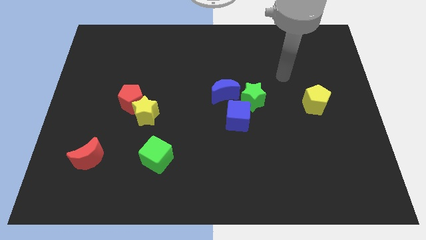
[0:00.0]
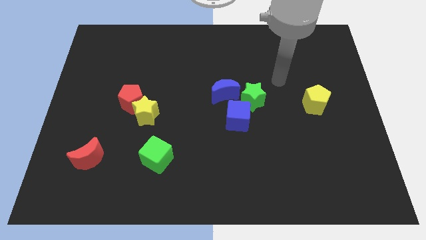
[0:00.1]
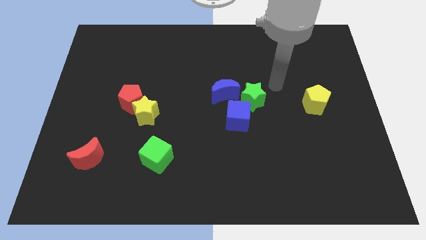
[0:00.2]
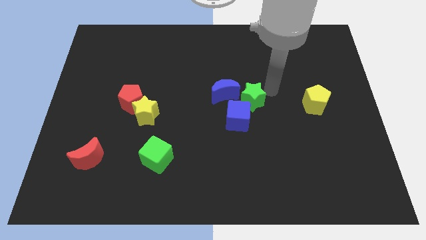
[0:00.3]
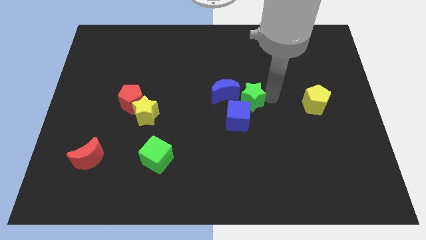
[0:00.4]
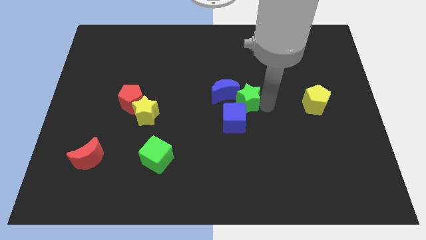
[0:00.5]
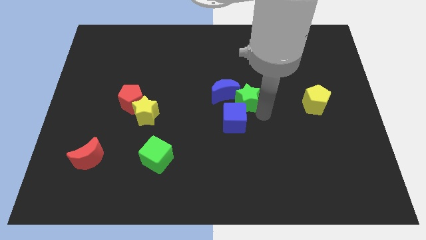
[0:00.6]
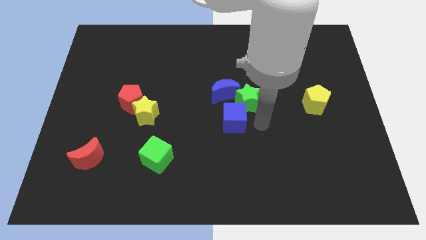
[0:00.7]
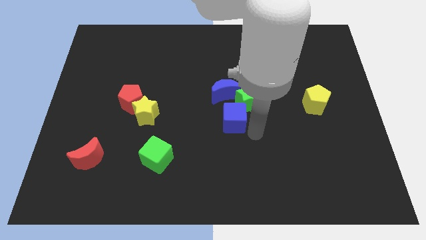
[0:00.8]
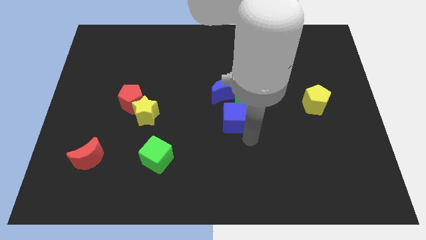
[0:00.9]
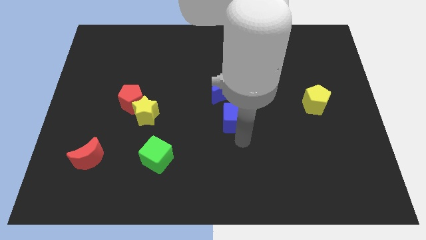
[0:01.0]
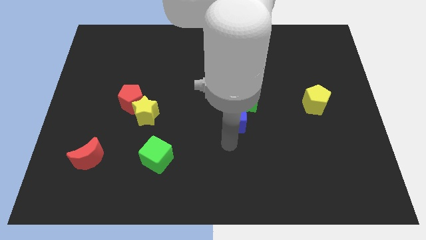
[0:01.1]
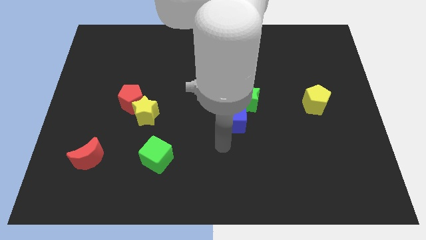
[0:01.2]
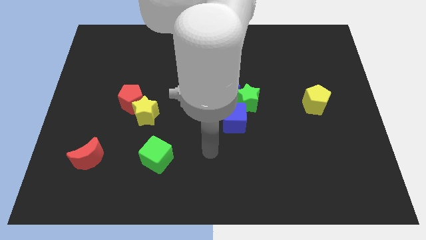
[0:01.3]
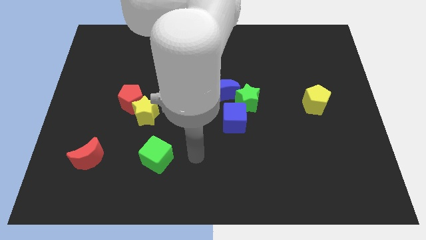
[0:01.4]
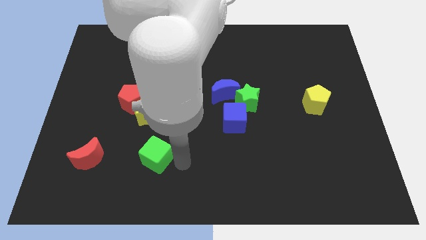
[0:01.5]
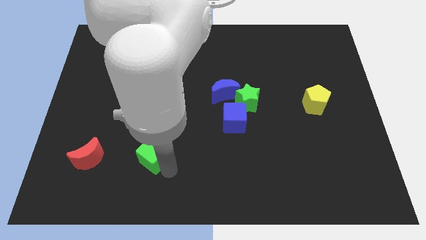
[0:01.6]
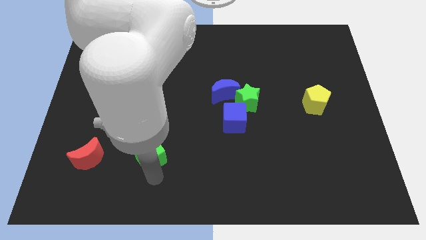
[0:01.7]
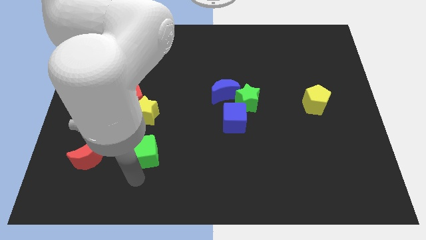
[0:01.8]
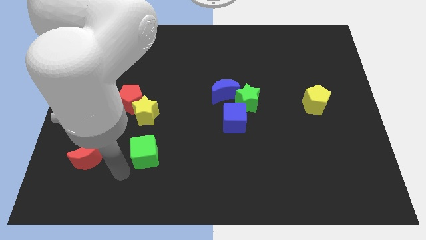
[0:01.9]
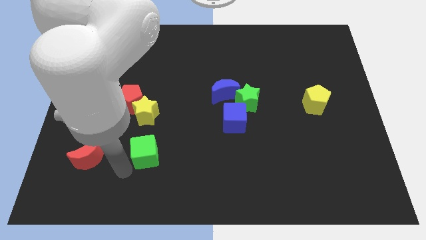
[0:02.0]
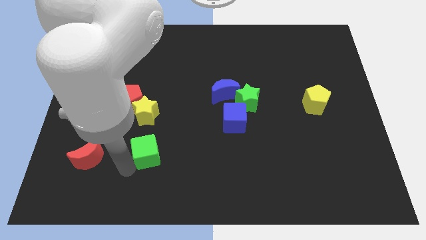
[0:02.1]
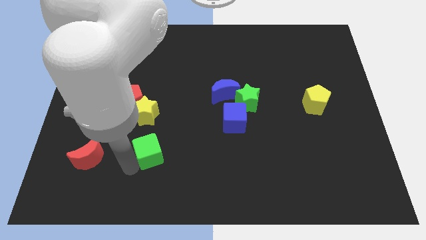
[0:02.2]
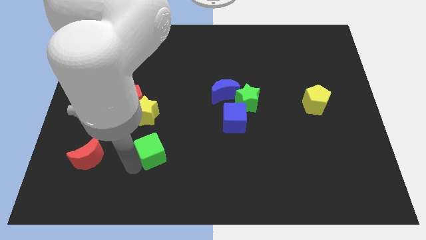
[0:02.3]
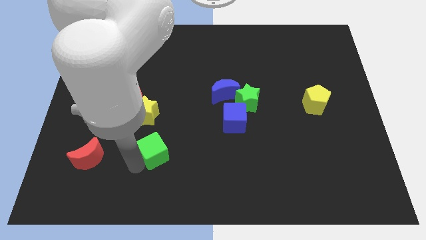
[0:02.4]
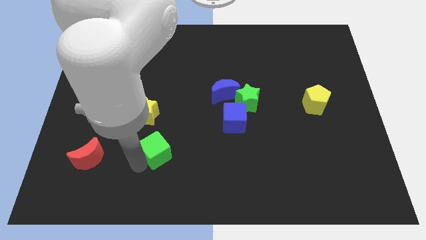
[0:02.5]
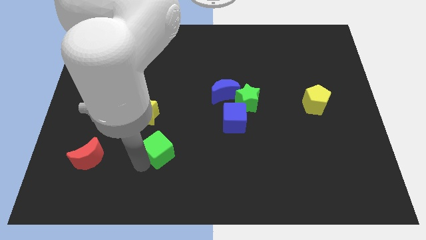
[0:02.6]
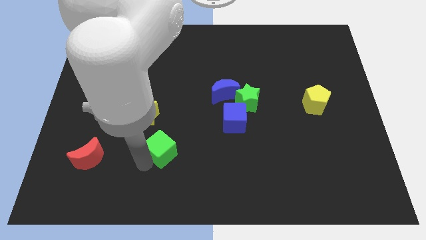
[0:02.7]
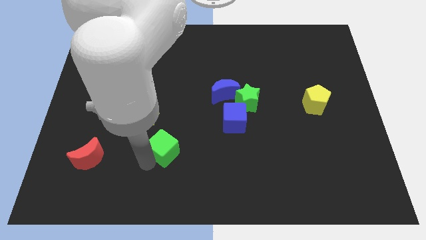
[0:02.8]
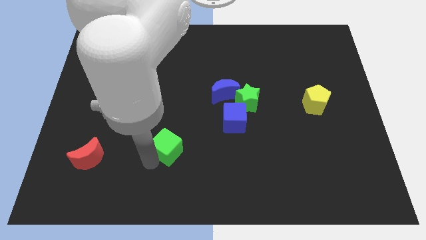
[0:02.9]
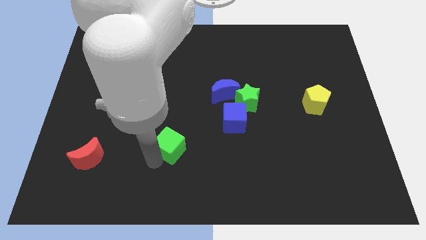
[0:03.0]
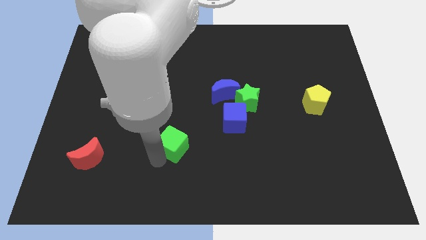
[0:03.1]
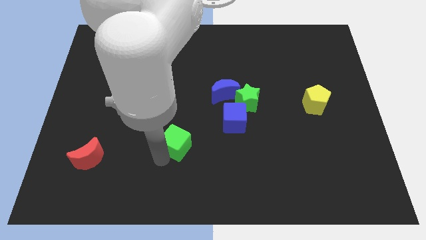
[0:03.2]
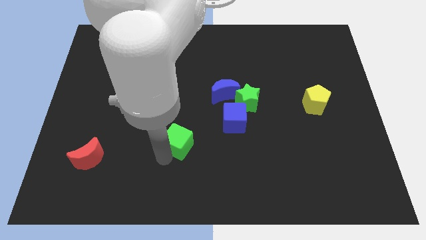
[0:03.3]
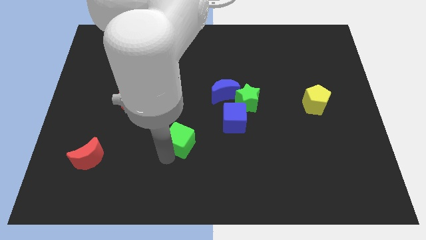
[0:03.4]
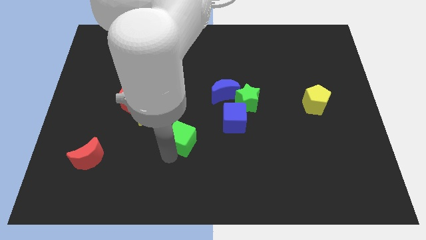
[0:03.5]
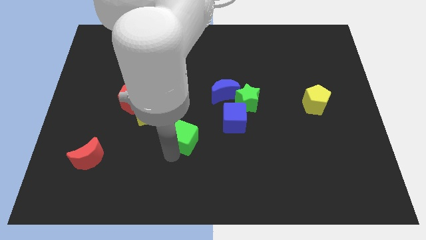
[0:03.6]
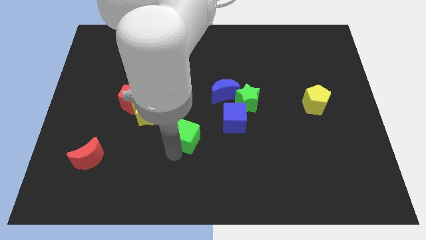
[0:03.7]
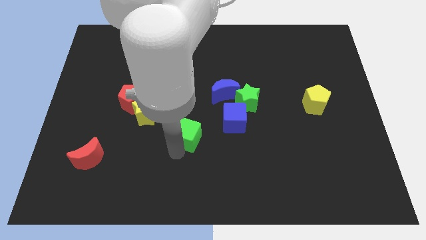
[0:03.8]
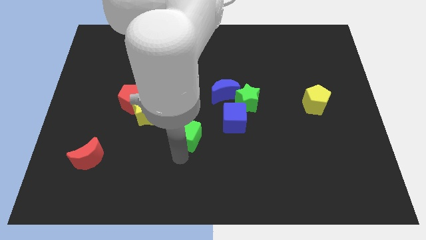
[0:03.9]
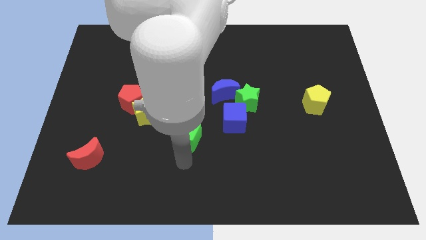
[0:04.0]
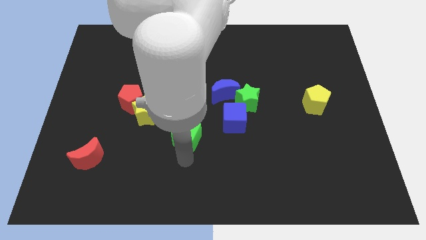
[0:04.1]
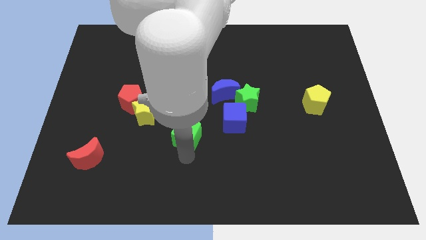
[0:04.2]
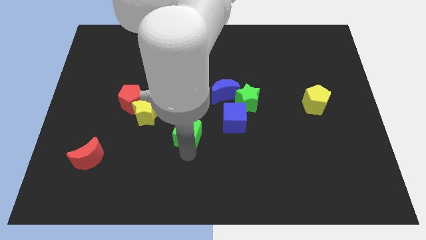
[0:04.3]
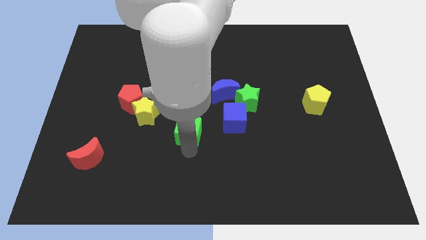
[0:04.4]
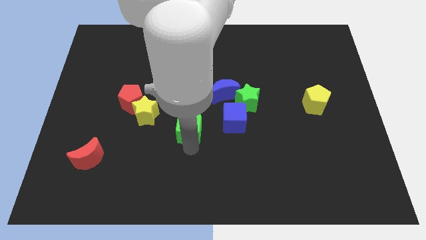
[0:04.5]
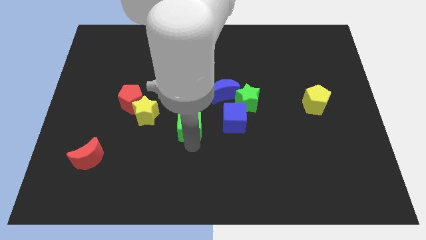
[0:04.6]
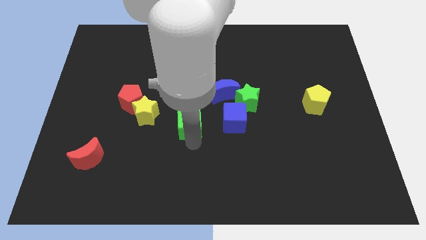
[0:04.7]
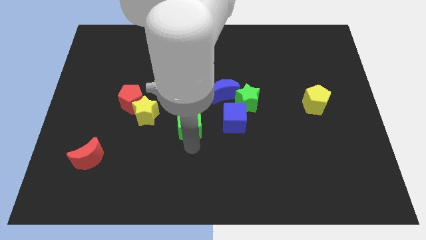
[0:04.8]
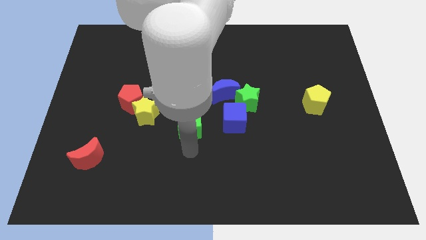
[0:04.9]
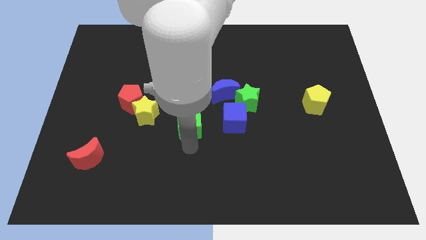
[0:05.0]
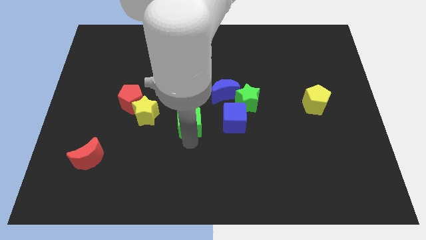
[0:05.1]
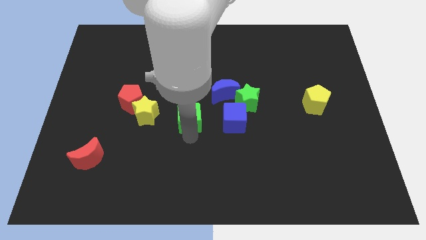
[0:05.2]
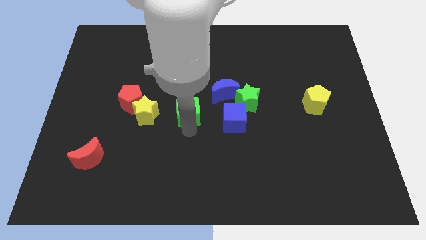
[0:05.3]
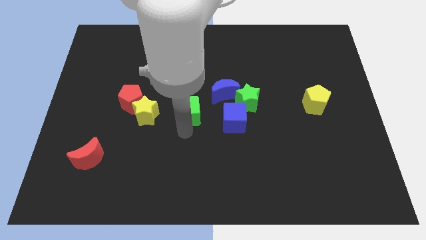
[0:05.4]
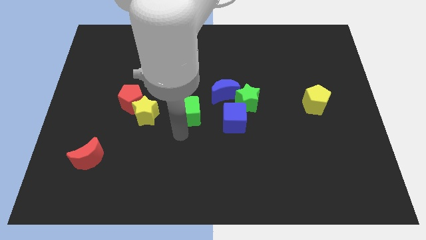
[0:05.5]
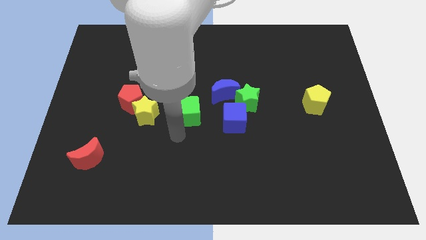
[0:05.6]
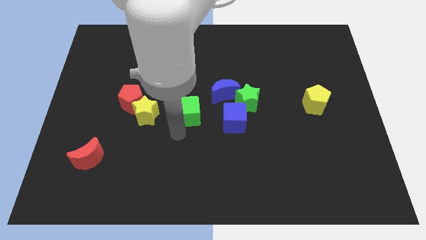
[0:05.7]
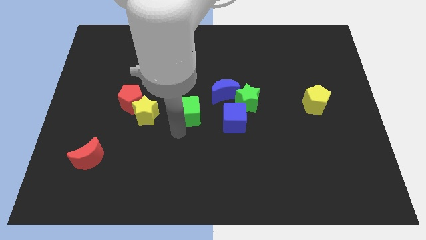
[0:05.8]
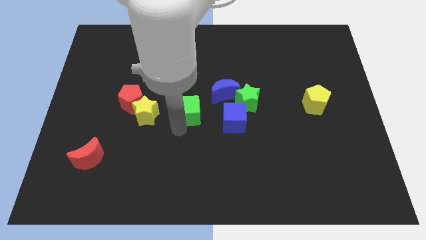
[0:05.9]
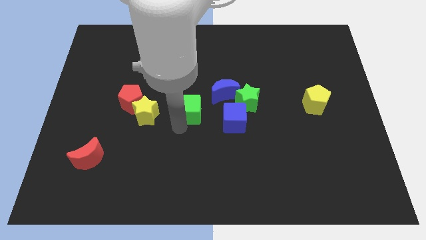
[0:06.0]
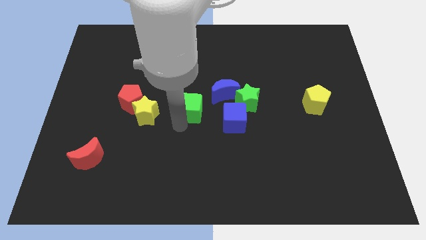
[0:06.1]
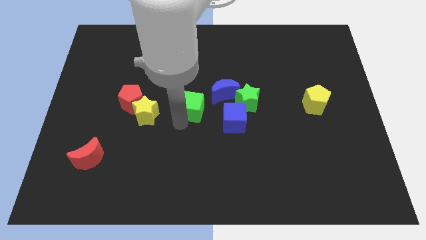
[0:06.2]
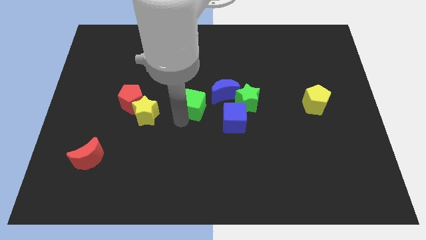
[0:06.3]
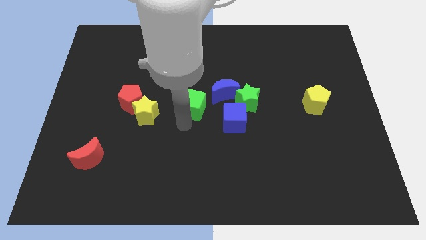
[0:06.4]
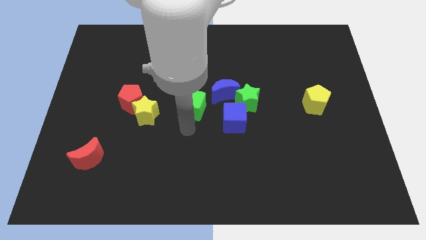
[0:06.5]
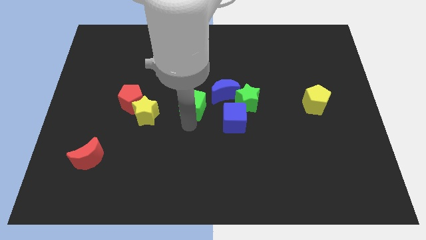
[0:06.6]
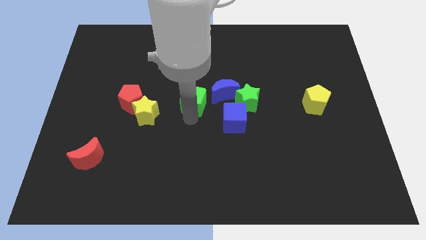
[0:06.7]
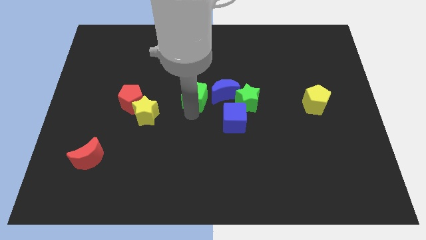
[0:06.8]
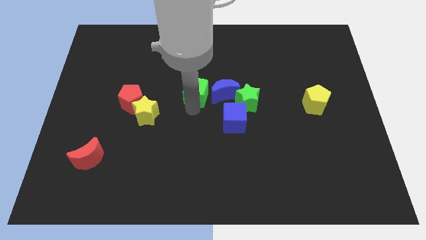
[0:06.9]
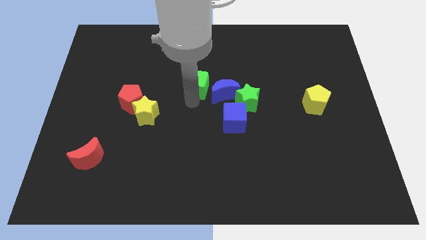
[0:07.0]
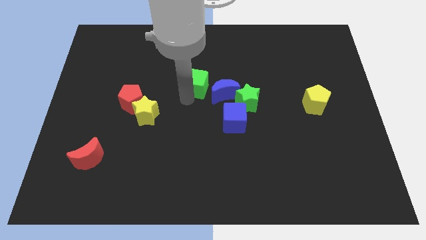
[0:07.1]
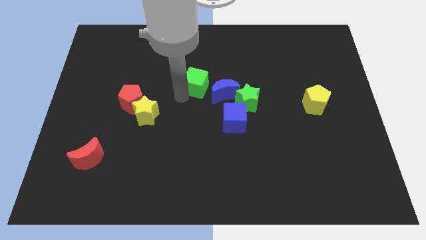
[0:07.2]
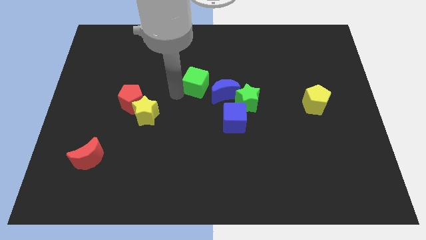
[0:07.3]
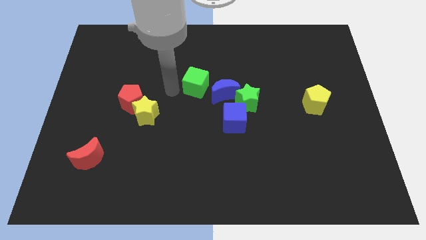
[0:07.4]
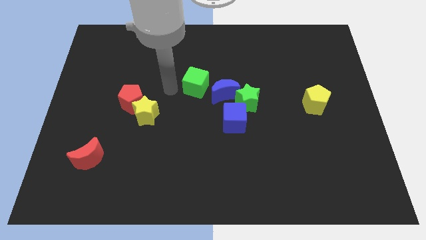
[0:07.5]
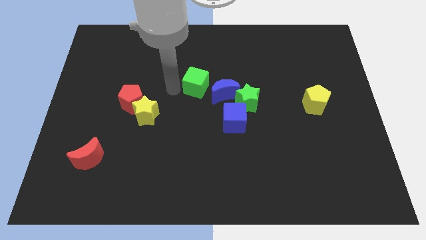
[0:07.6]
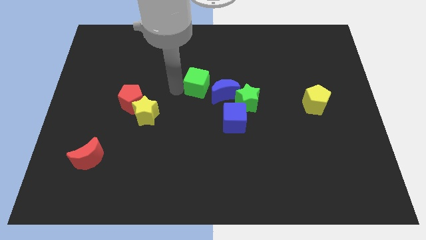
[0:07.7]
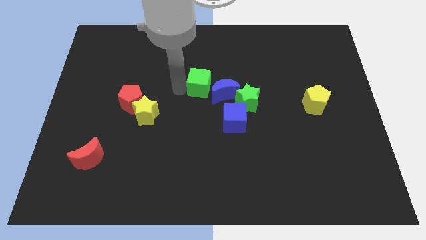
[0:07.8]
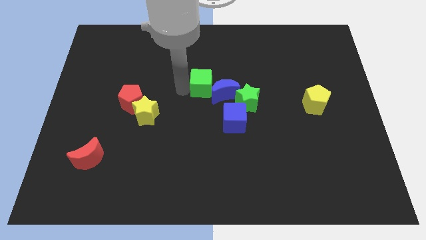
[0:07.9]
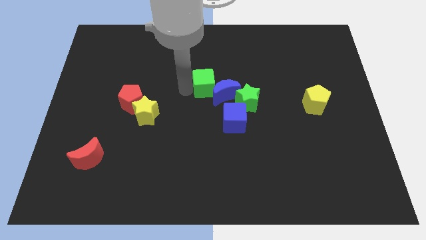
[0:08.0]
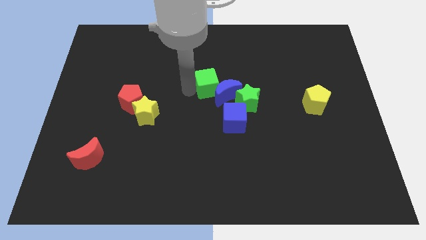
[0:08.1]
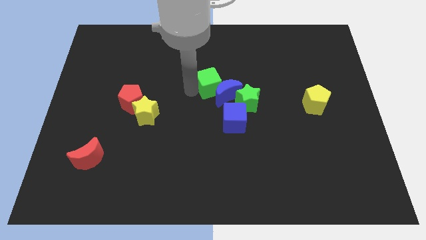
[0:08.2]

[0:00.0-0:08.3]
push the green cube up and right
